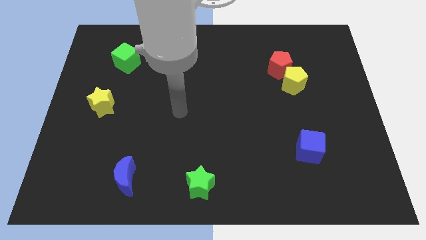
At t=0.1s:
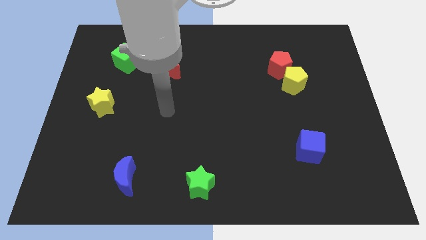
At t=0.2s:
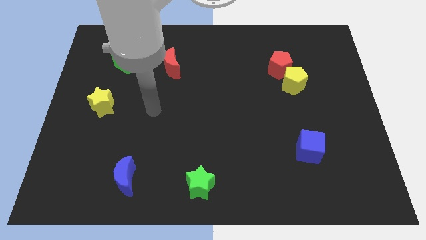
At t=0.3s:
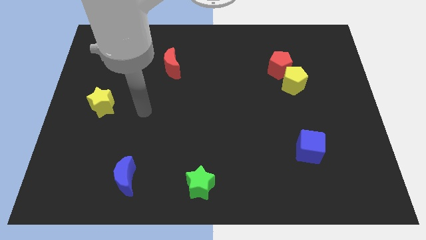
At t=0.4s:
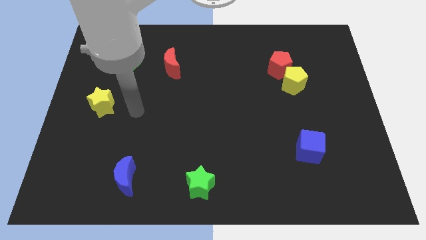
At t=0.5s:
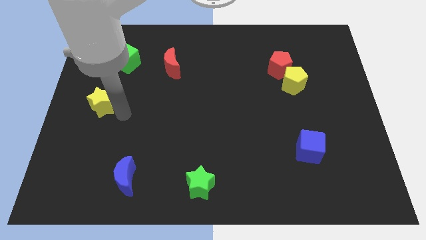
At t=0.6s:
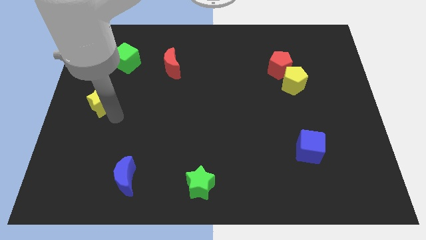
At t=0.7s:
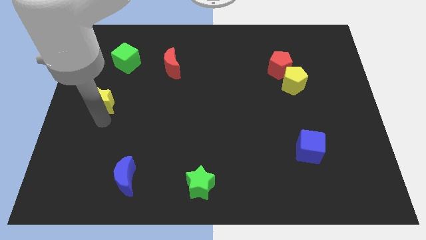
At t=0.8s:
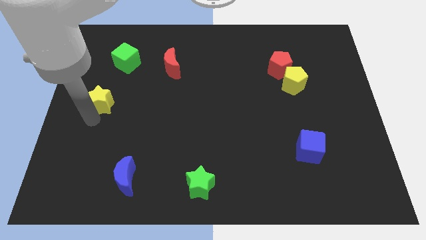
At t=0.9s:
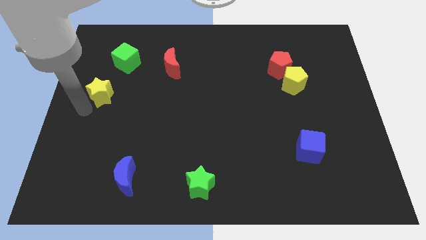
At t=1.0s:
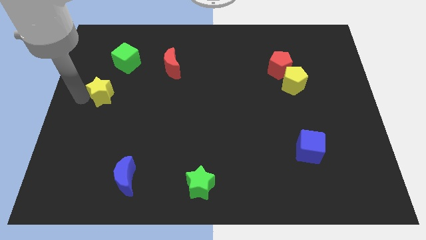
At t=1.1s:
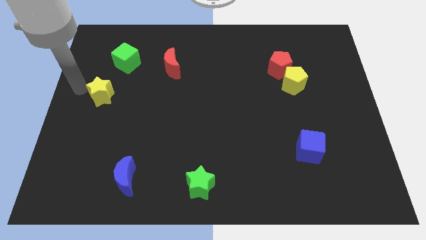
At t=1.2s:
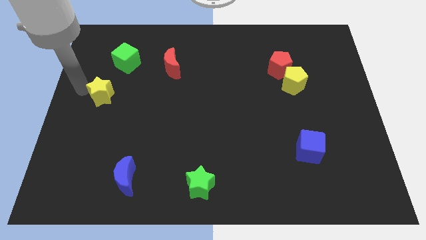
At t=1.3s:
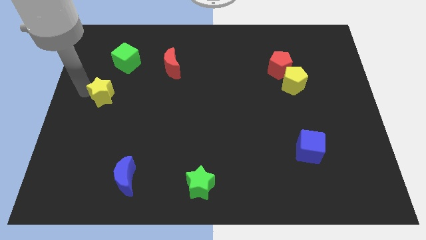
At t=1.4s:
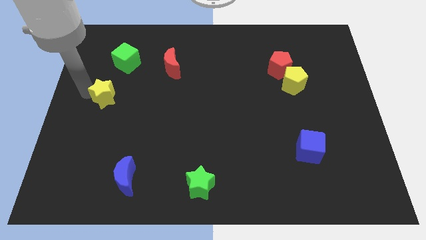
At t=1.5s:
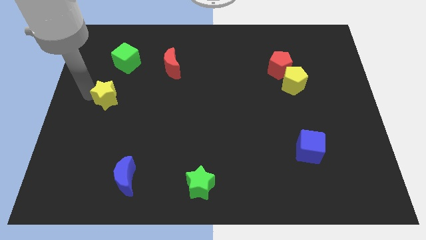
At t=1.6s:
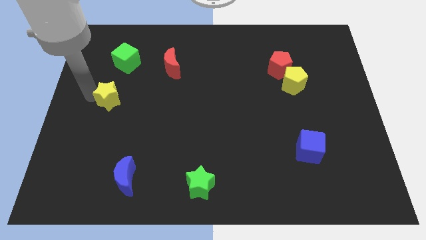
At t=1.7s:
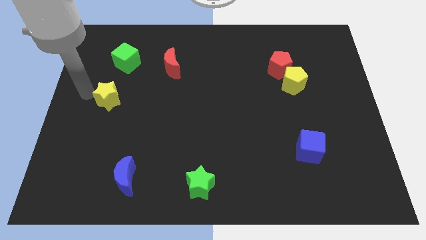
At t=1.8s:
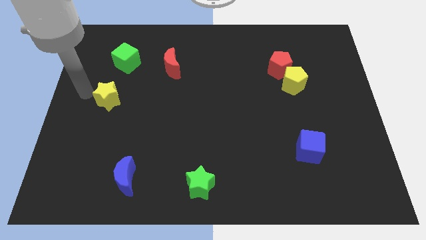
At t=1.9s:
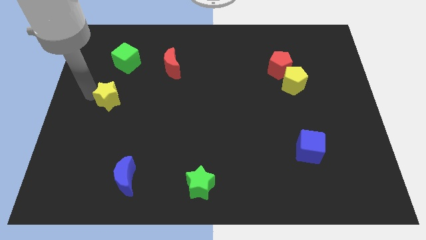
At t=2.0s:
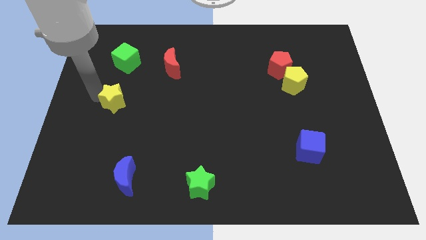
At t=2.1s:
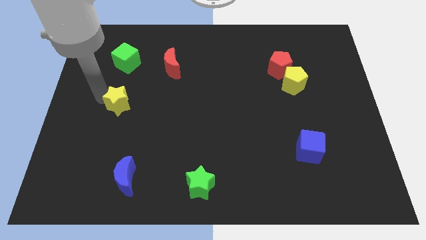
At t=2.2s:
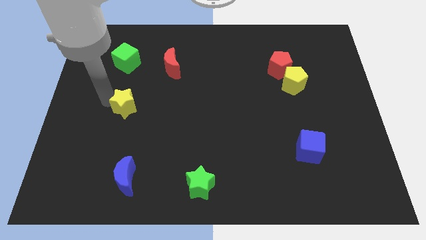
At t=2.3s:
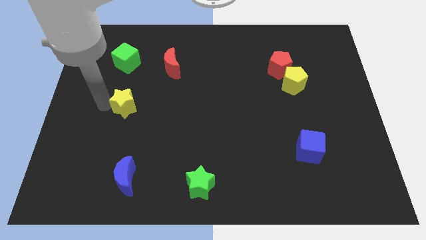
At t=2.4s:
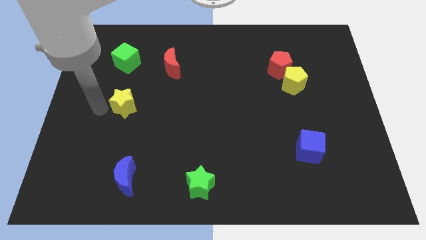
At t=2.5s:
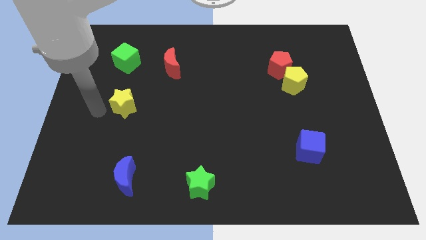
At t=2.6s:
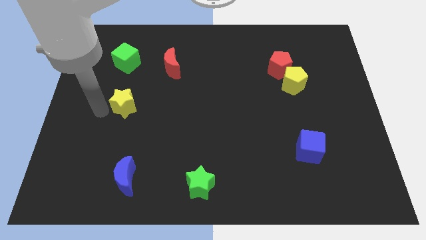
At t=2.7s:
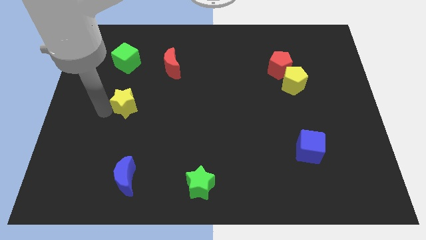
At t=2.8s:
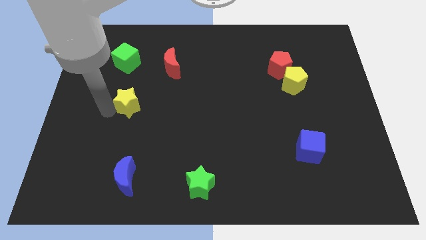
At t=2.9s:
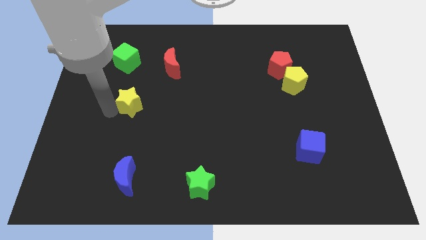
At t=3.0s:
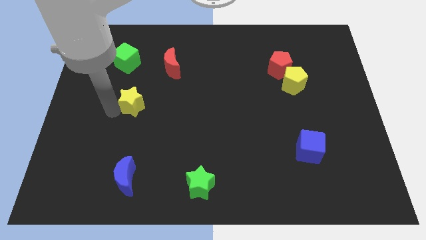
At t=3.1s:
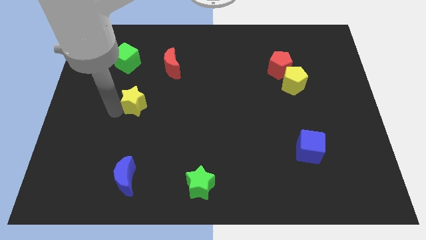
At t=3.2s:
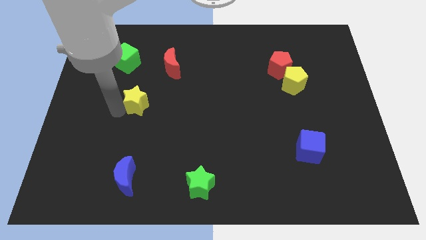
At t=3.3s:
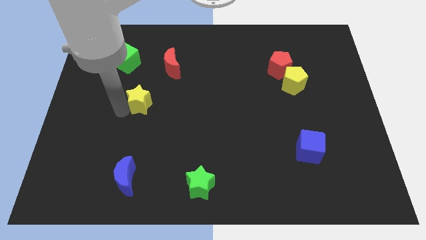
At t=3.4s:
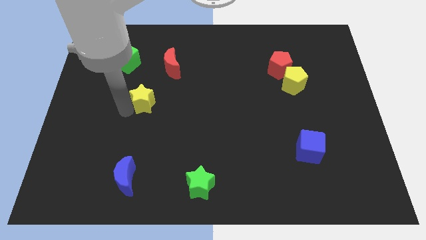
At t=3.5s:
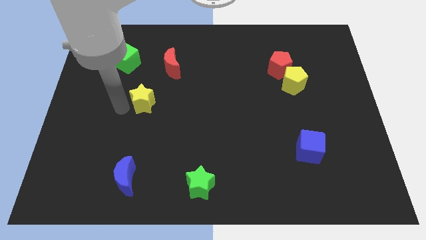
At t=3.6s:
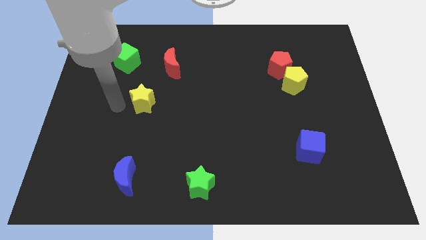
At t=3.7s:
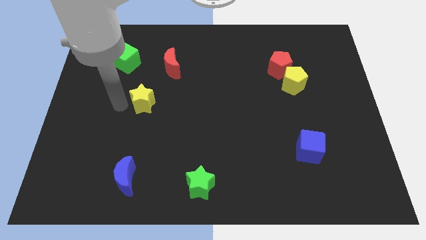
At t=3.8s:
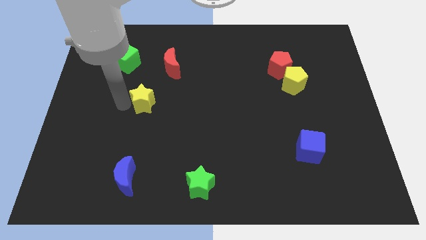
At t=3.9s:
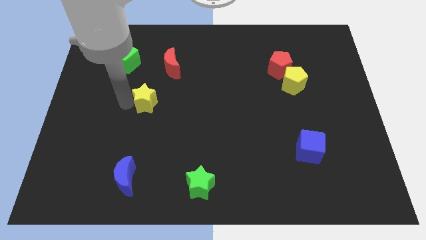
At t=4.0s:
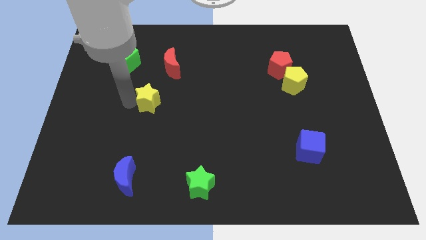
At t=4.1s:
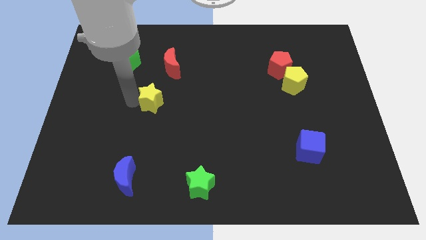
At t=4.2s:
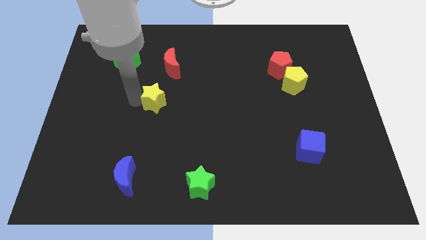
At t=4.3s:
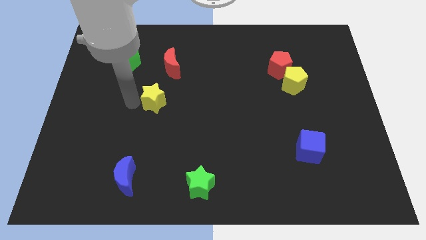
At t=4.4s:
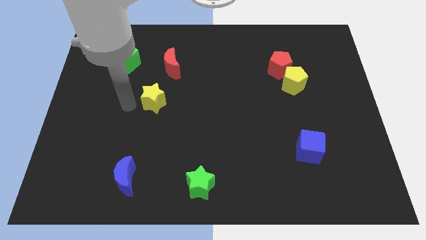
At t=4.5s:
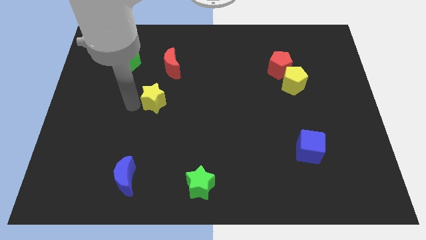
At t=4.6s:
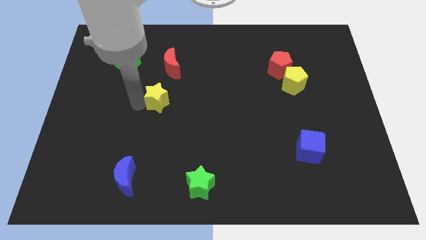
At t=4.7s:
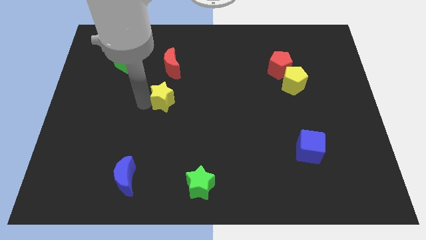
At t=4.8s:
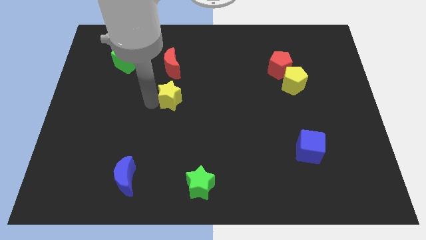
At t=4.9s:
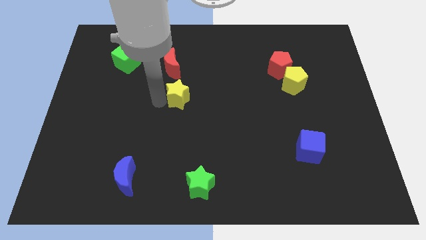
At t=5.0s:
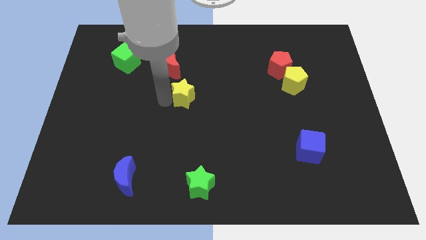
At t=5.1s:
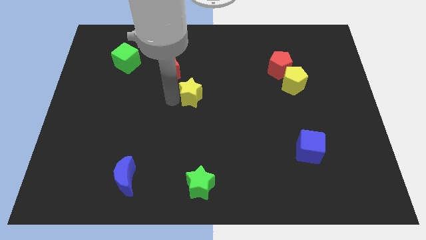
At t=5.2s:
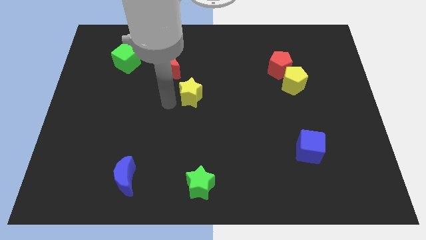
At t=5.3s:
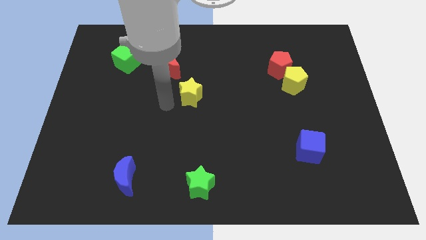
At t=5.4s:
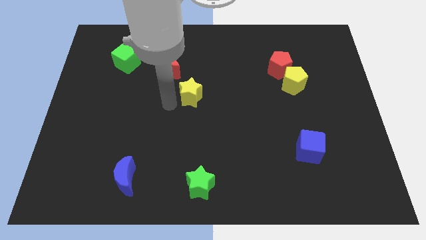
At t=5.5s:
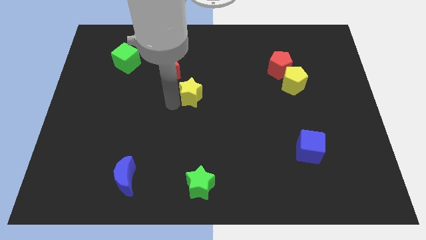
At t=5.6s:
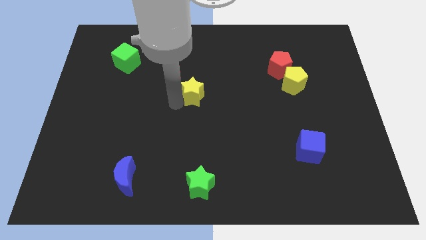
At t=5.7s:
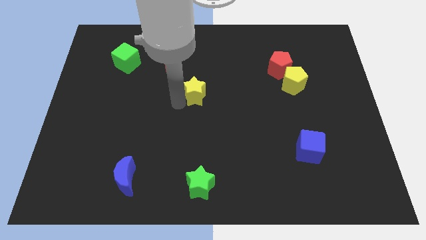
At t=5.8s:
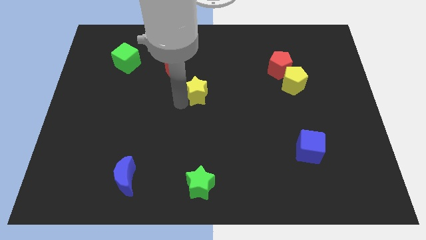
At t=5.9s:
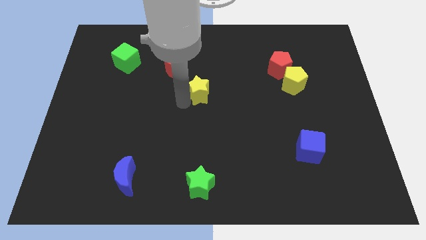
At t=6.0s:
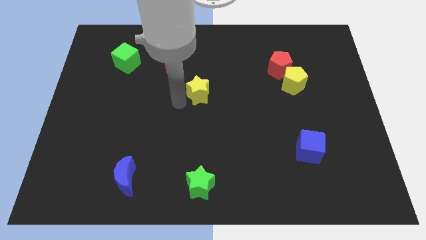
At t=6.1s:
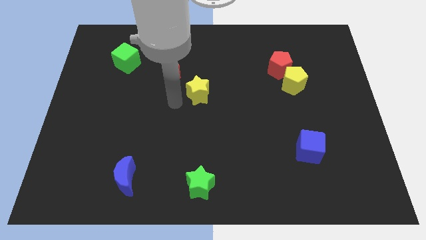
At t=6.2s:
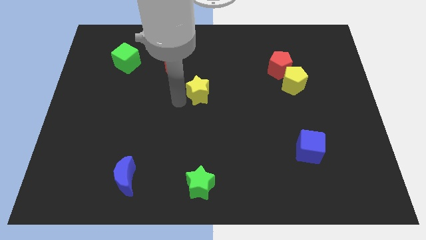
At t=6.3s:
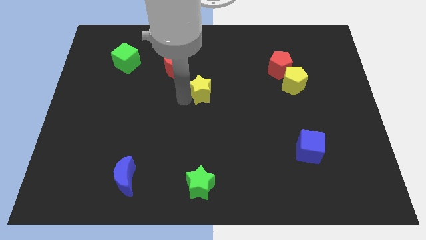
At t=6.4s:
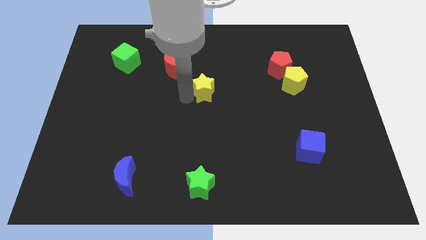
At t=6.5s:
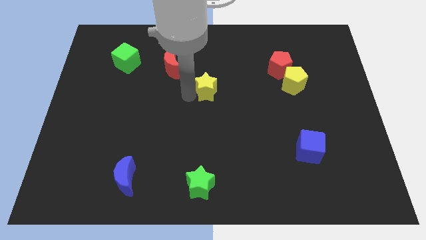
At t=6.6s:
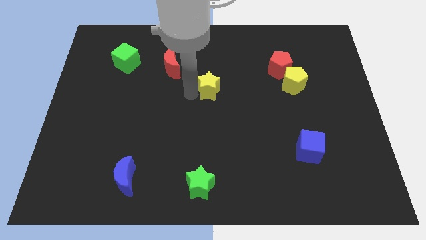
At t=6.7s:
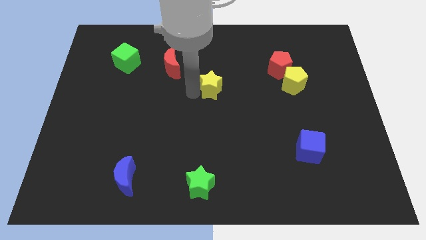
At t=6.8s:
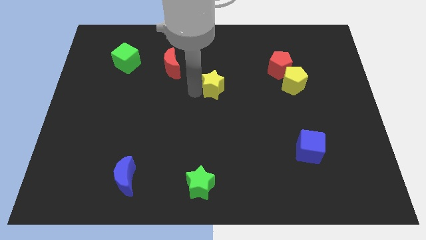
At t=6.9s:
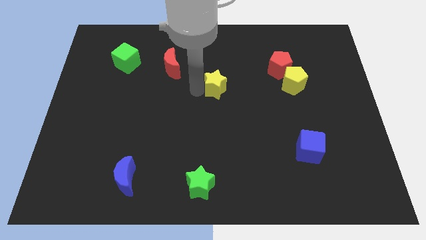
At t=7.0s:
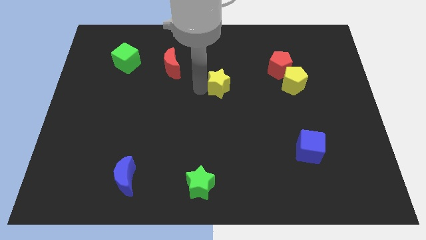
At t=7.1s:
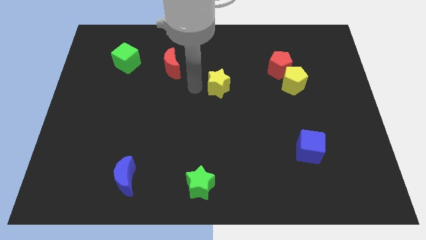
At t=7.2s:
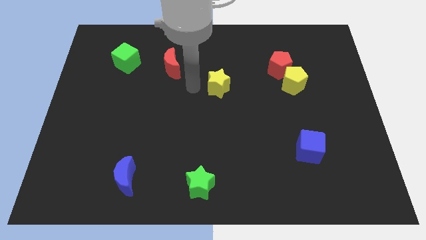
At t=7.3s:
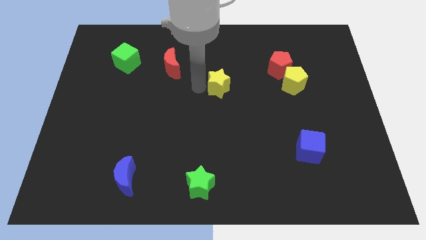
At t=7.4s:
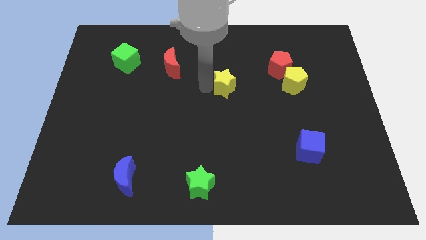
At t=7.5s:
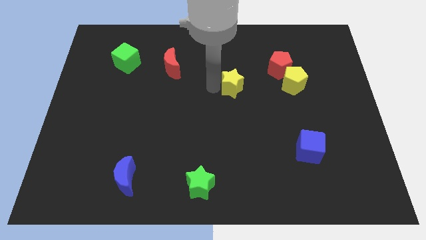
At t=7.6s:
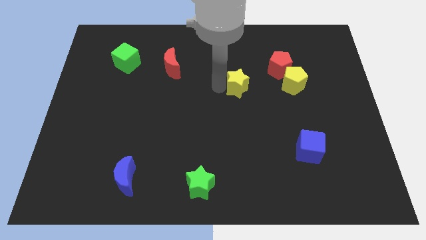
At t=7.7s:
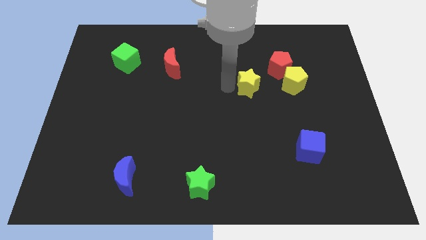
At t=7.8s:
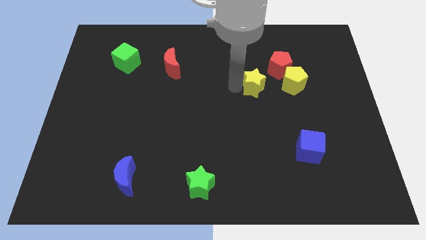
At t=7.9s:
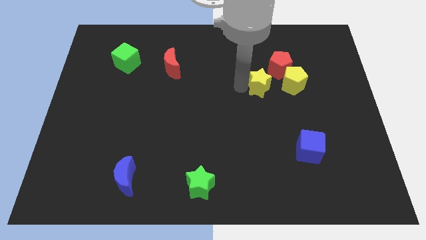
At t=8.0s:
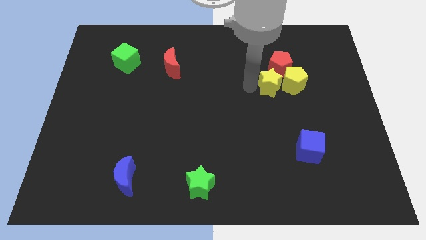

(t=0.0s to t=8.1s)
move the yellow star to the yellow pentagon
